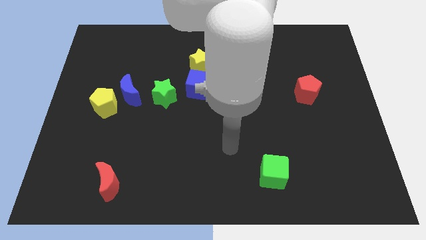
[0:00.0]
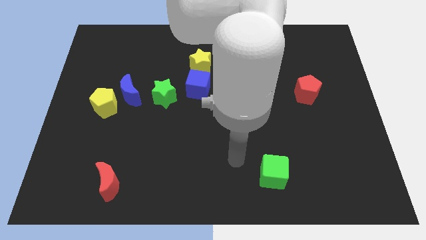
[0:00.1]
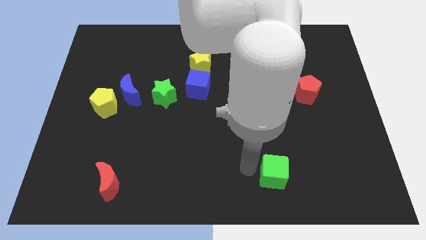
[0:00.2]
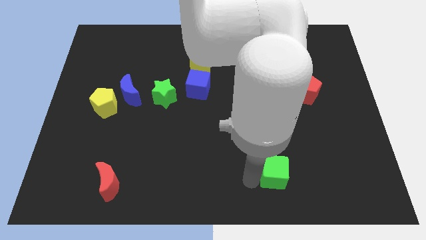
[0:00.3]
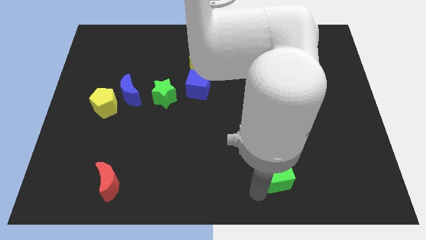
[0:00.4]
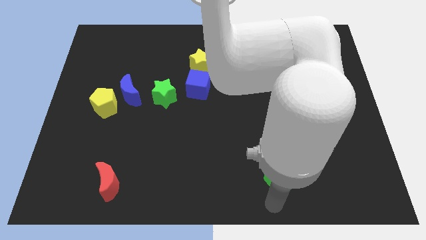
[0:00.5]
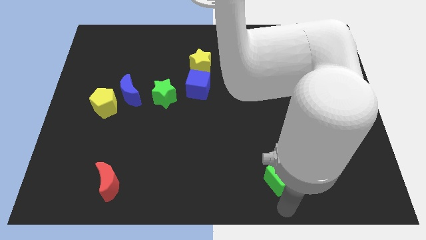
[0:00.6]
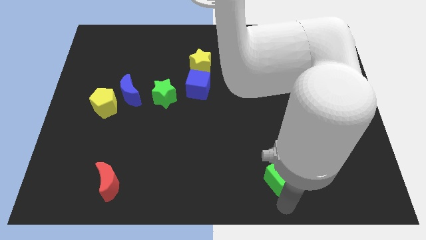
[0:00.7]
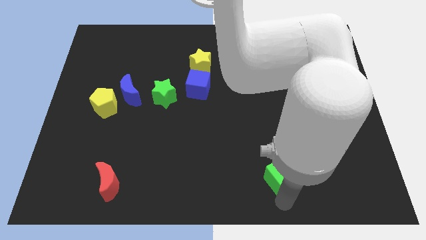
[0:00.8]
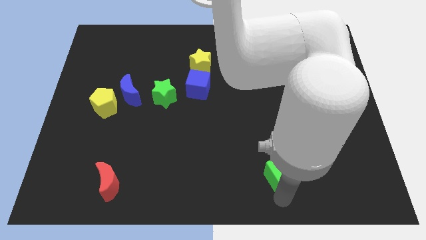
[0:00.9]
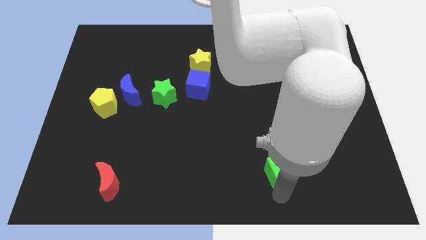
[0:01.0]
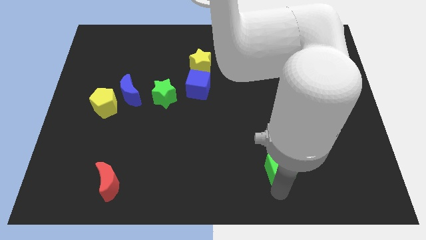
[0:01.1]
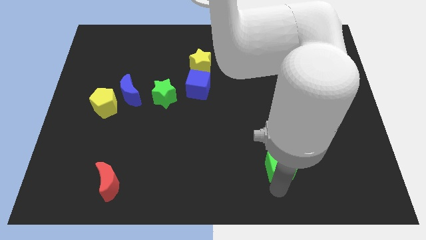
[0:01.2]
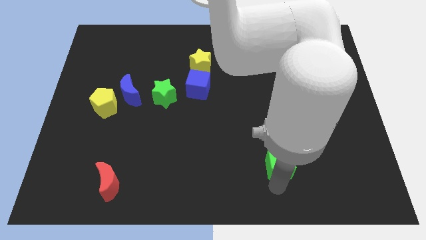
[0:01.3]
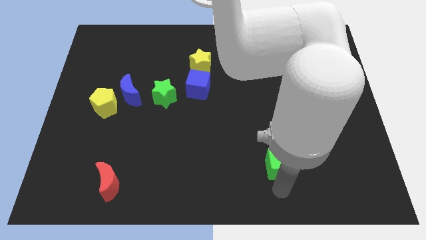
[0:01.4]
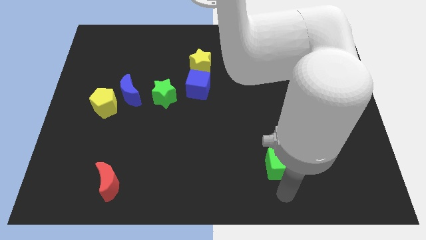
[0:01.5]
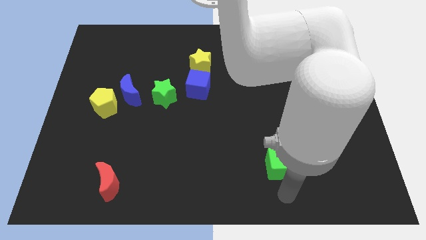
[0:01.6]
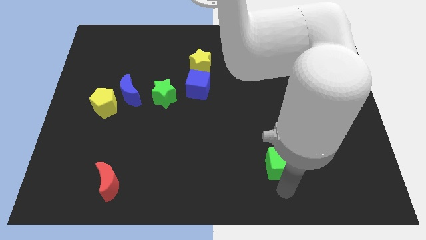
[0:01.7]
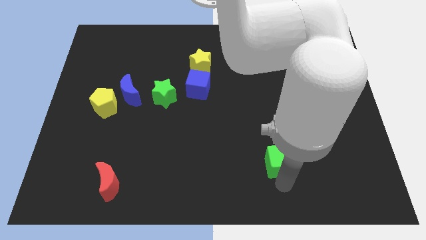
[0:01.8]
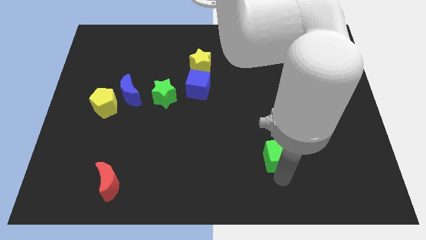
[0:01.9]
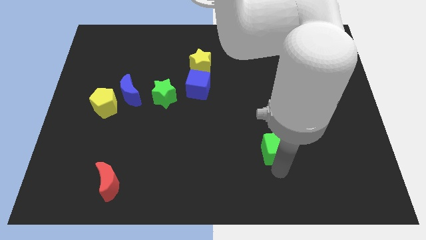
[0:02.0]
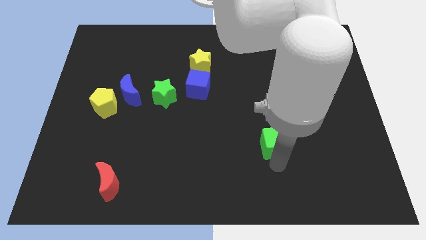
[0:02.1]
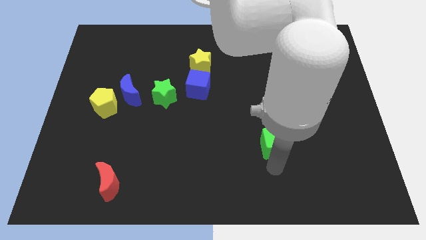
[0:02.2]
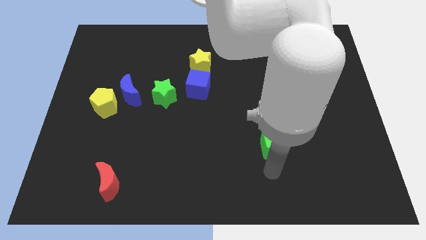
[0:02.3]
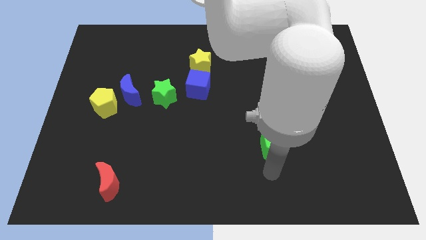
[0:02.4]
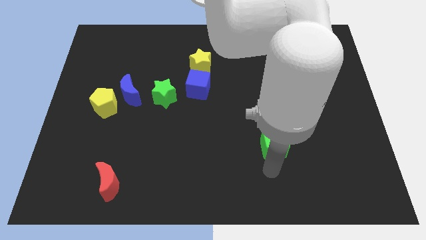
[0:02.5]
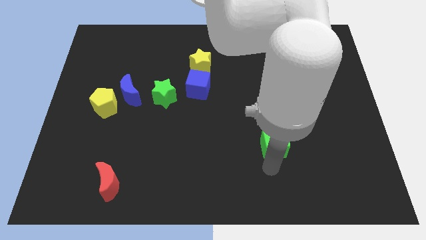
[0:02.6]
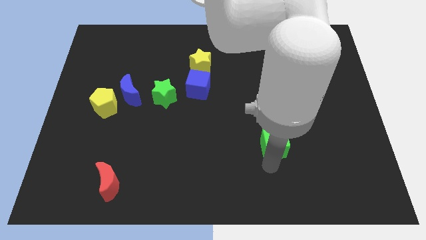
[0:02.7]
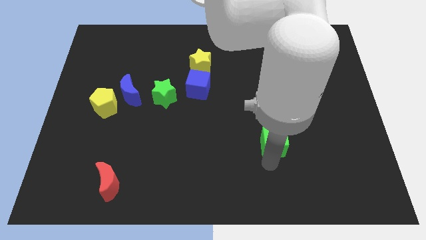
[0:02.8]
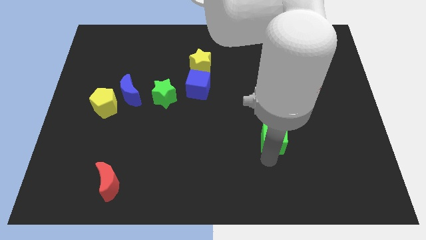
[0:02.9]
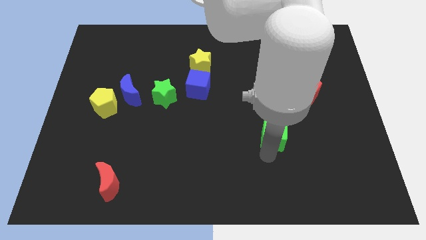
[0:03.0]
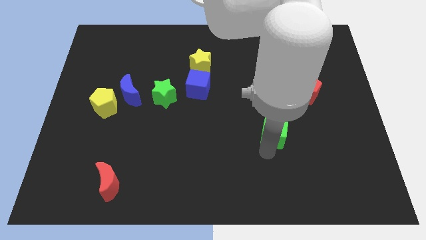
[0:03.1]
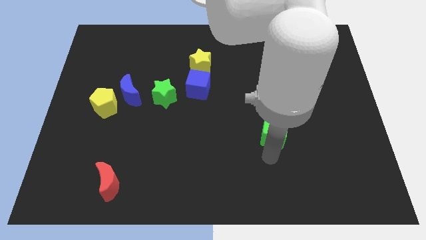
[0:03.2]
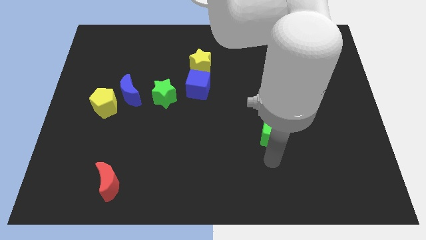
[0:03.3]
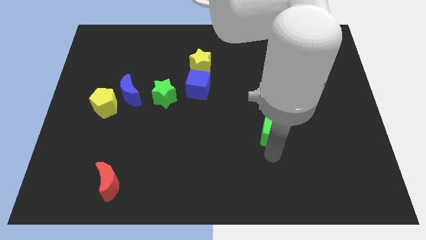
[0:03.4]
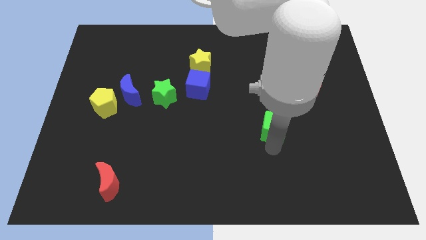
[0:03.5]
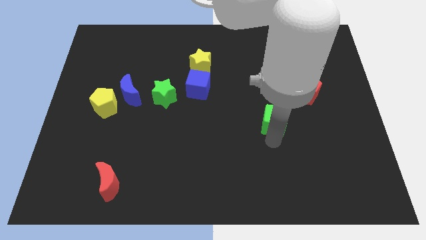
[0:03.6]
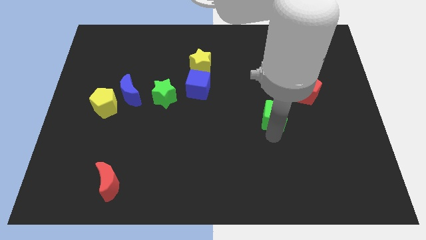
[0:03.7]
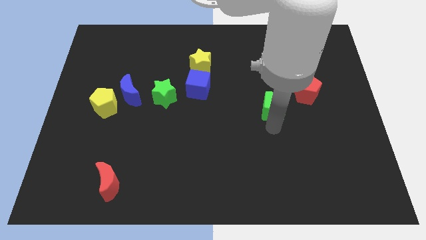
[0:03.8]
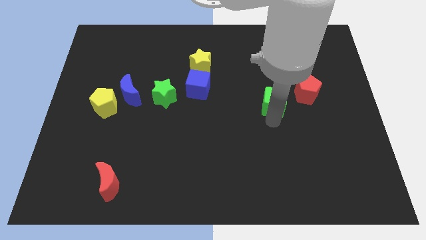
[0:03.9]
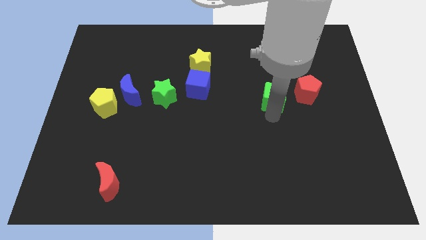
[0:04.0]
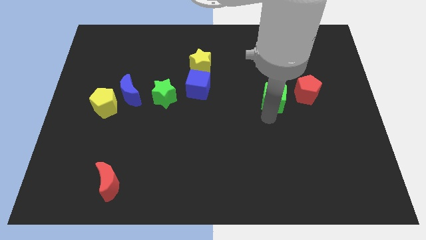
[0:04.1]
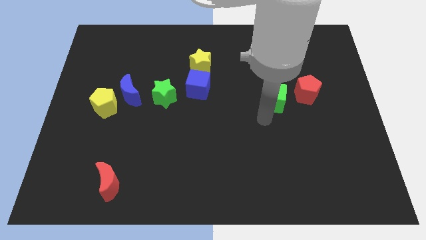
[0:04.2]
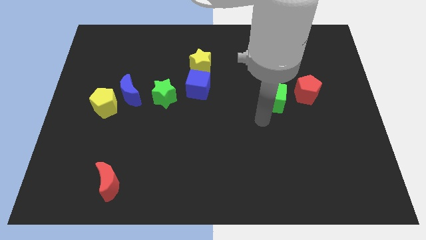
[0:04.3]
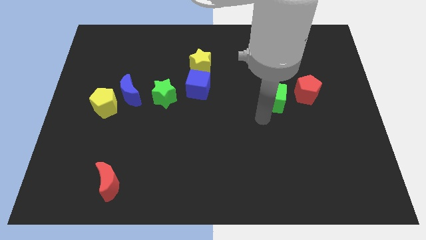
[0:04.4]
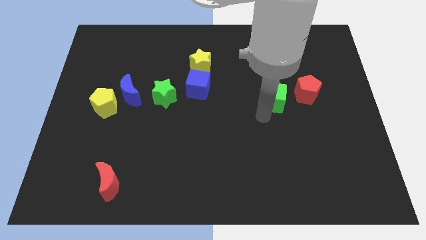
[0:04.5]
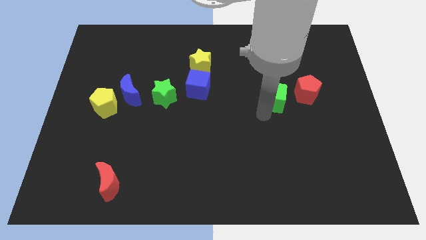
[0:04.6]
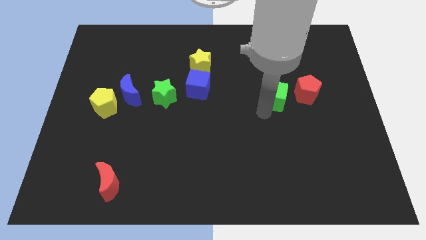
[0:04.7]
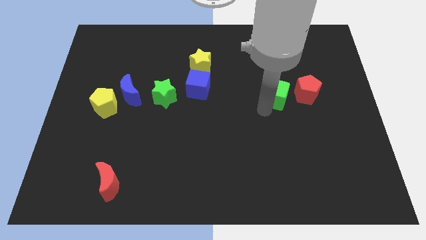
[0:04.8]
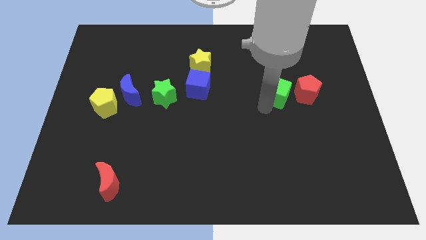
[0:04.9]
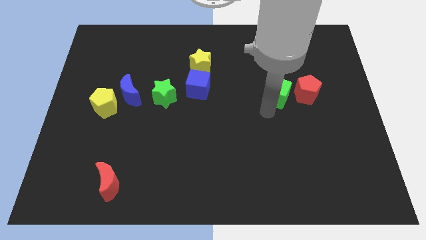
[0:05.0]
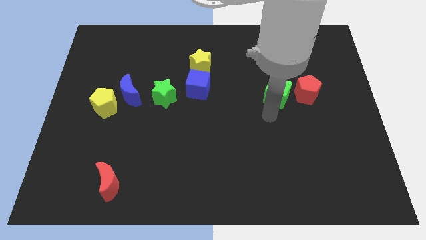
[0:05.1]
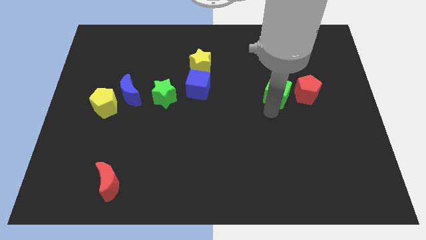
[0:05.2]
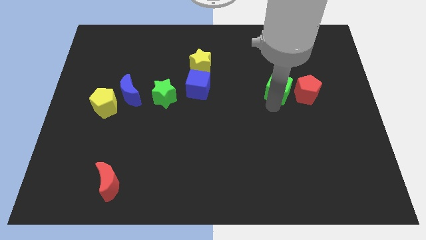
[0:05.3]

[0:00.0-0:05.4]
move the green cube to the top left of the red pentagon

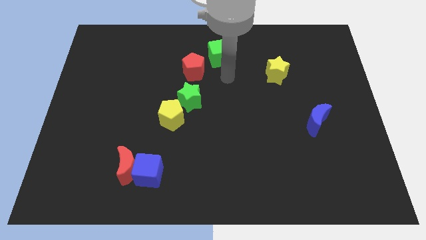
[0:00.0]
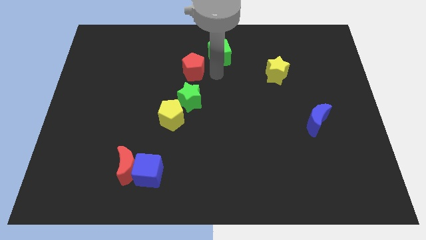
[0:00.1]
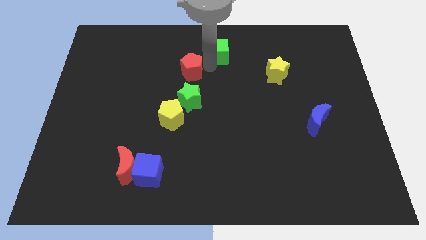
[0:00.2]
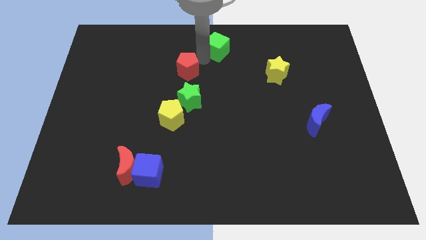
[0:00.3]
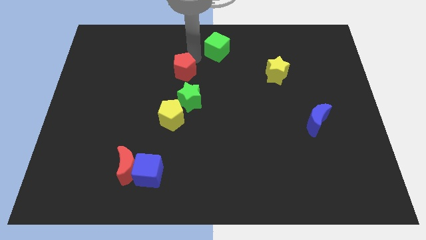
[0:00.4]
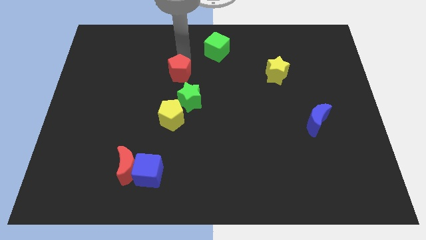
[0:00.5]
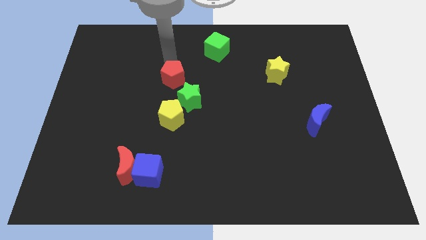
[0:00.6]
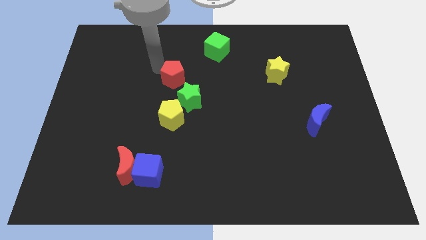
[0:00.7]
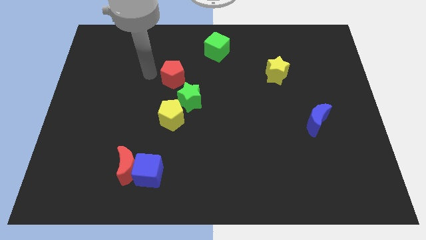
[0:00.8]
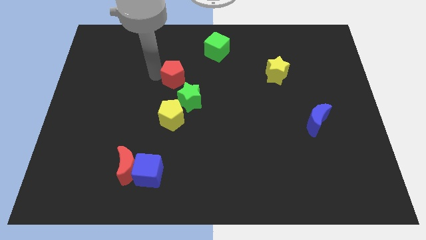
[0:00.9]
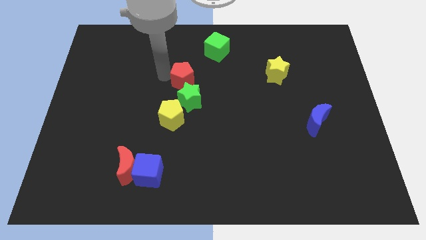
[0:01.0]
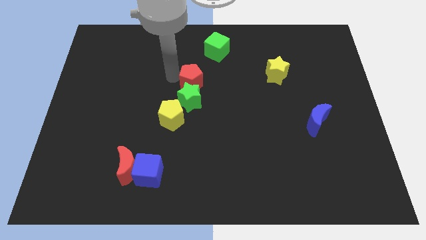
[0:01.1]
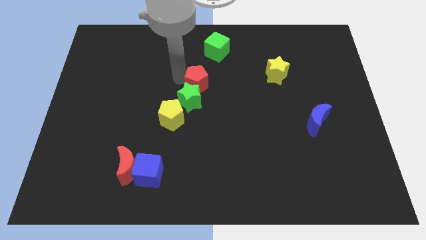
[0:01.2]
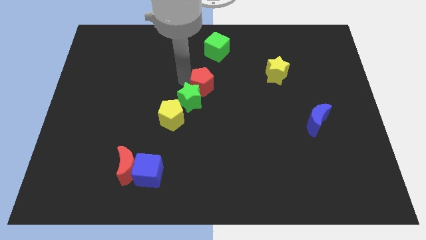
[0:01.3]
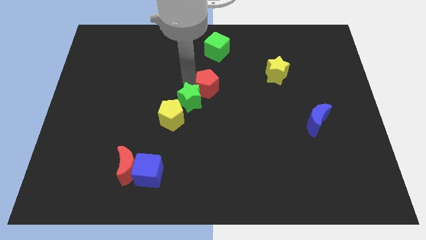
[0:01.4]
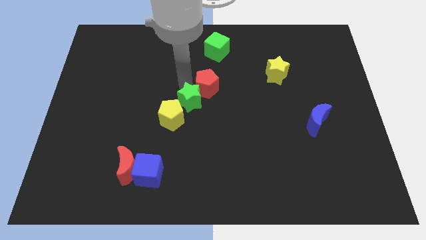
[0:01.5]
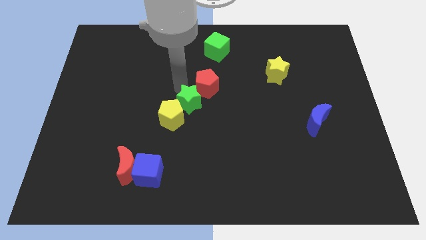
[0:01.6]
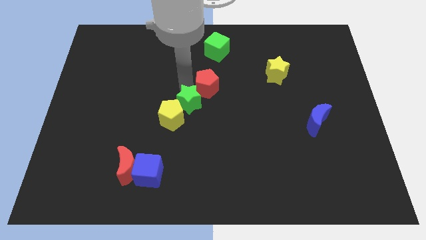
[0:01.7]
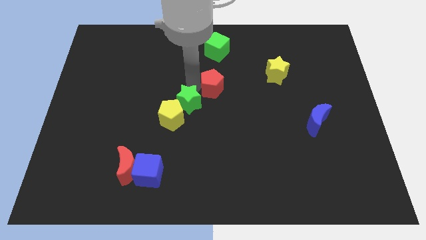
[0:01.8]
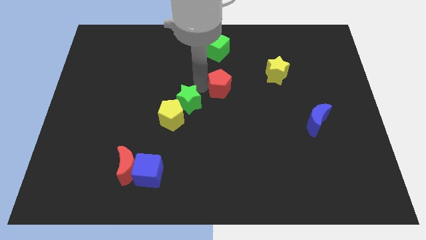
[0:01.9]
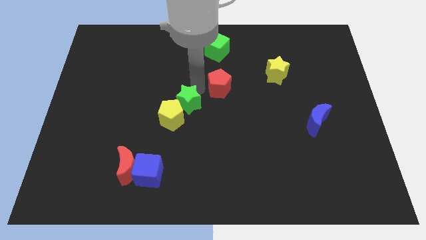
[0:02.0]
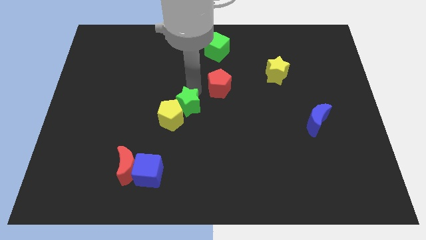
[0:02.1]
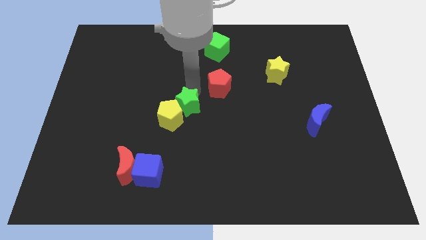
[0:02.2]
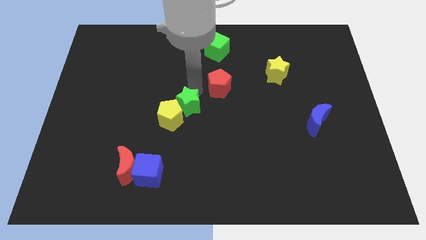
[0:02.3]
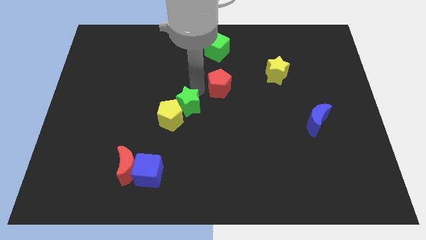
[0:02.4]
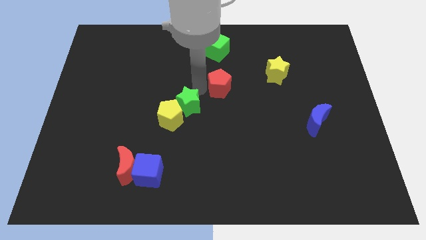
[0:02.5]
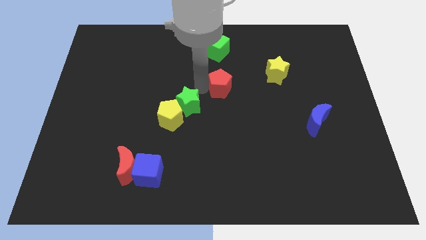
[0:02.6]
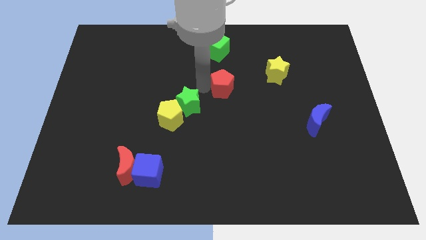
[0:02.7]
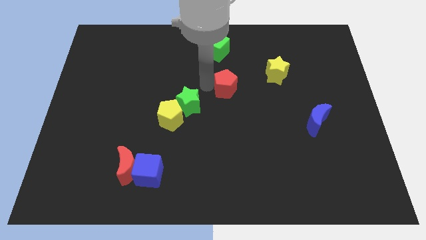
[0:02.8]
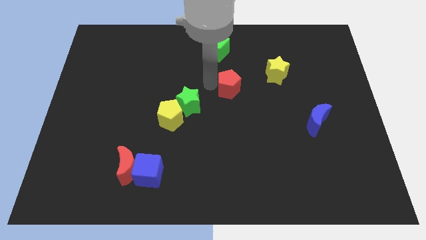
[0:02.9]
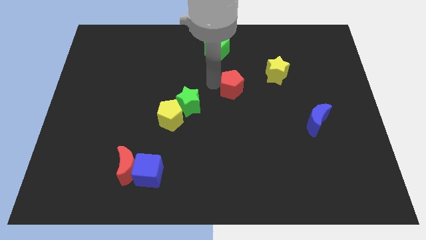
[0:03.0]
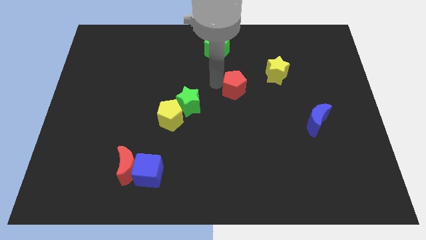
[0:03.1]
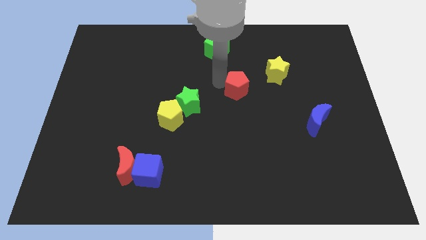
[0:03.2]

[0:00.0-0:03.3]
move the red pentagon to the bottom left side of the yellow star
